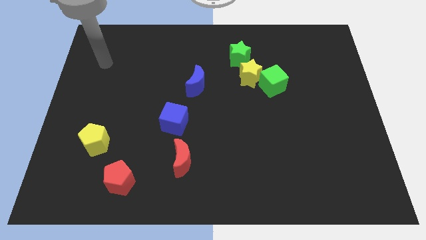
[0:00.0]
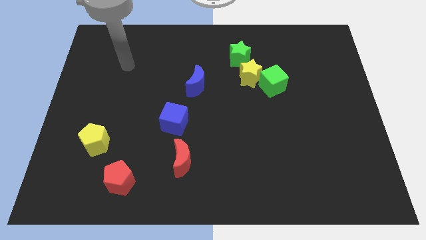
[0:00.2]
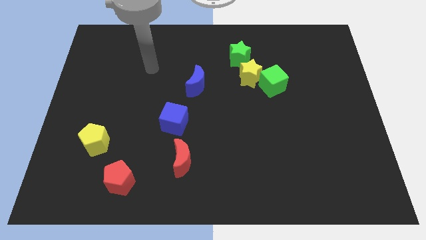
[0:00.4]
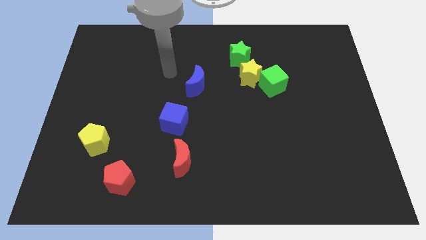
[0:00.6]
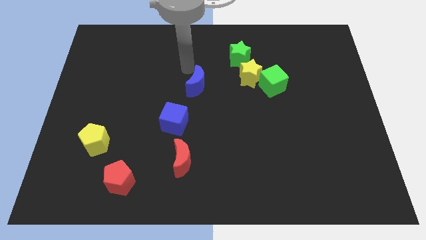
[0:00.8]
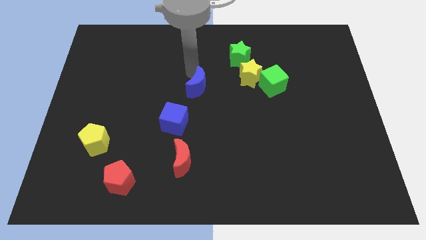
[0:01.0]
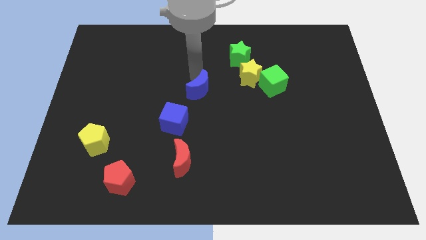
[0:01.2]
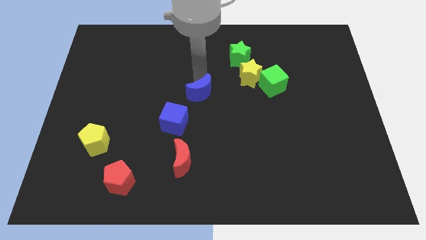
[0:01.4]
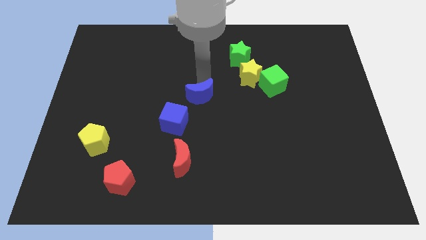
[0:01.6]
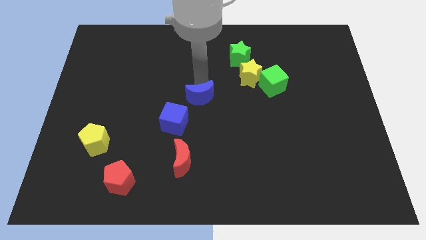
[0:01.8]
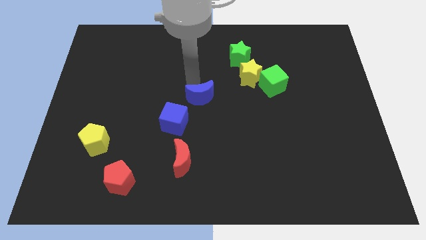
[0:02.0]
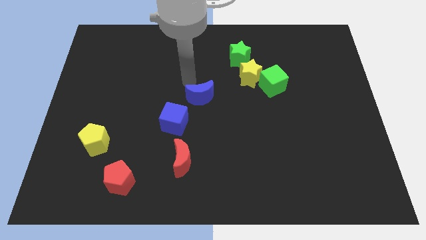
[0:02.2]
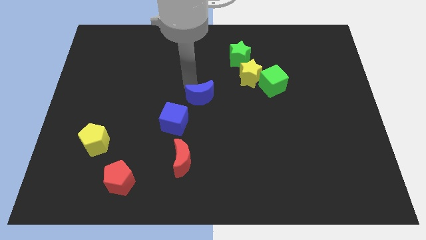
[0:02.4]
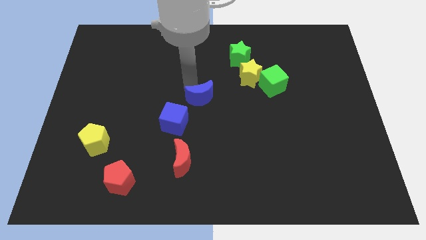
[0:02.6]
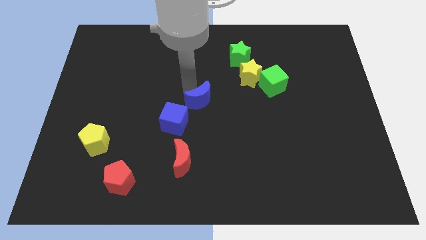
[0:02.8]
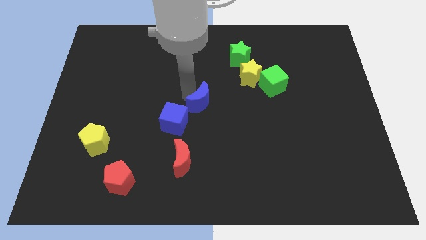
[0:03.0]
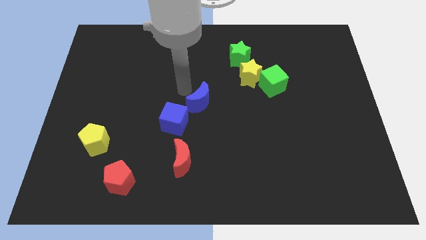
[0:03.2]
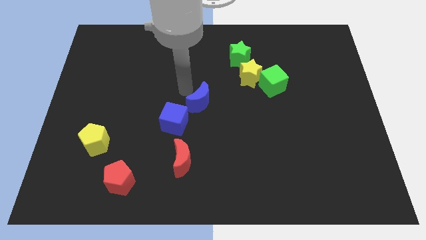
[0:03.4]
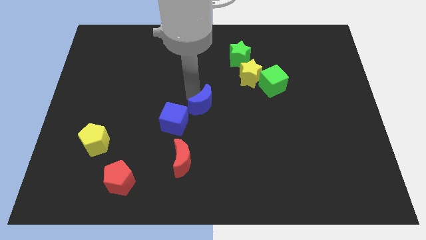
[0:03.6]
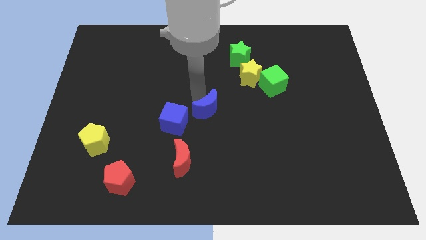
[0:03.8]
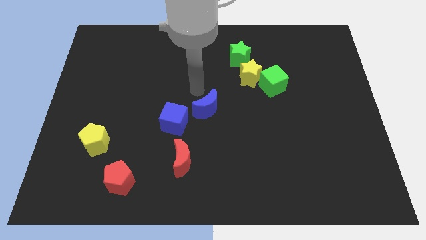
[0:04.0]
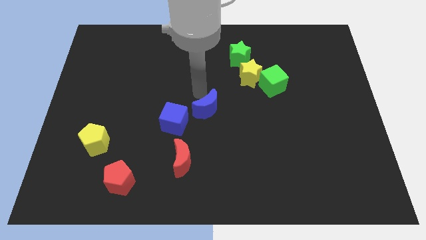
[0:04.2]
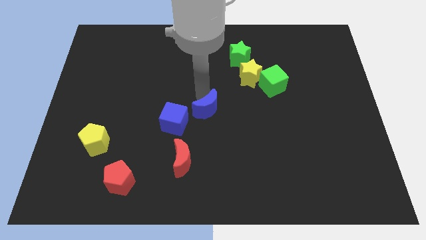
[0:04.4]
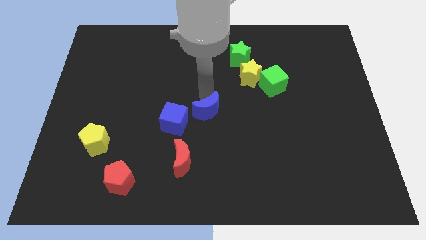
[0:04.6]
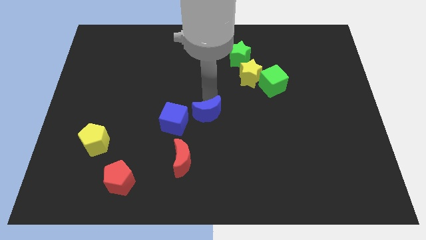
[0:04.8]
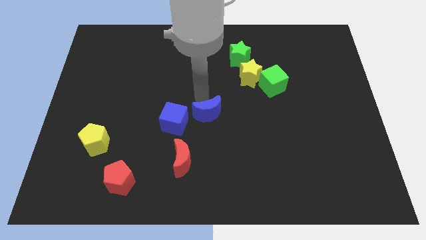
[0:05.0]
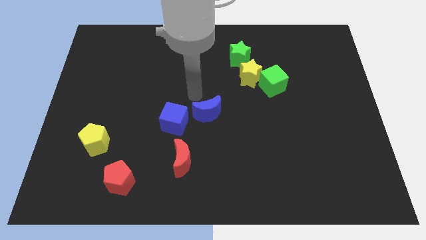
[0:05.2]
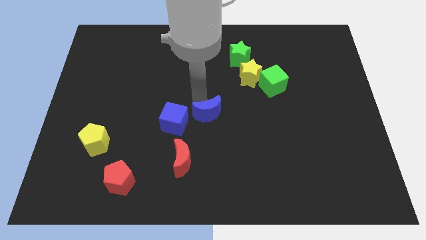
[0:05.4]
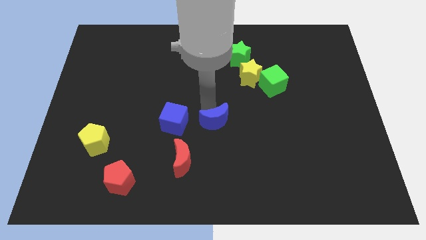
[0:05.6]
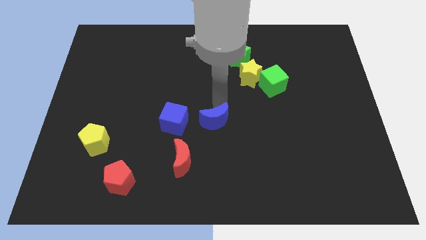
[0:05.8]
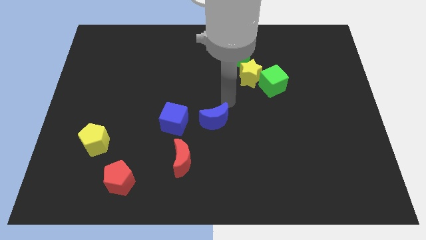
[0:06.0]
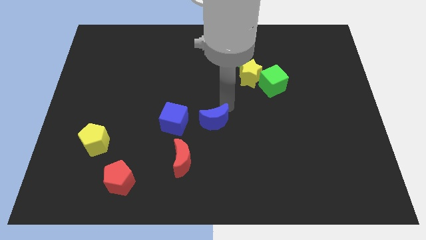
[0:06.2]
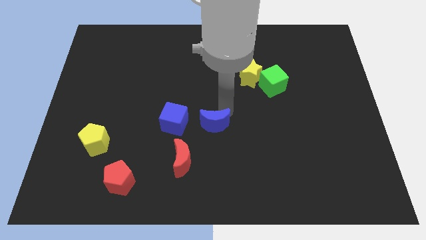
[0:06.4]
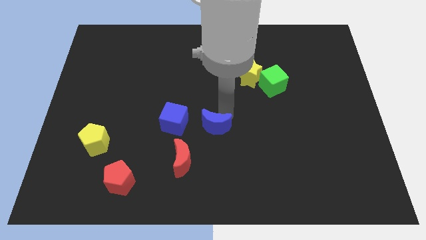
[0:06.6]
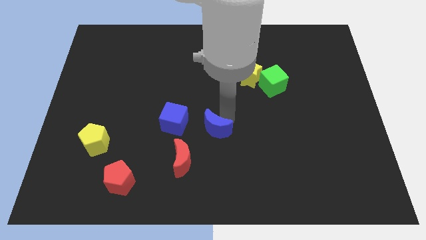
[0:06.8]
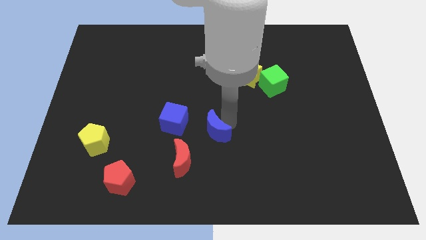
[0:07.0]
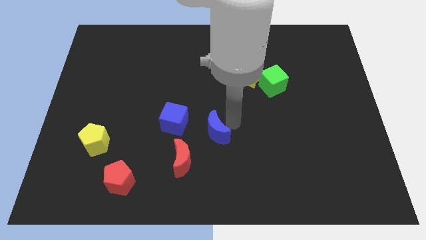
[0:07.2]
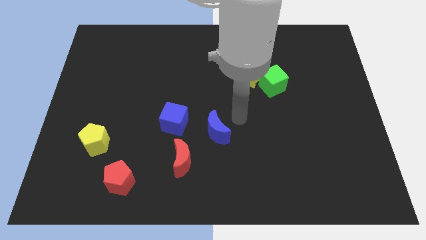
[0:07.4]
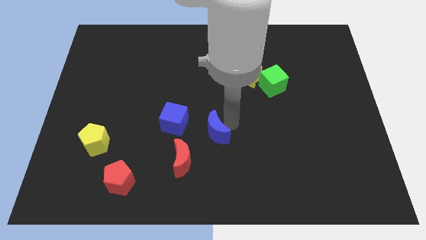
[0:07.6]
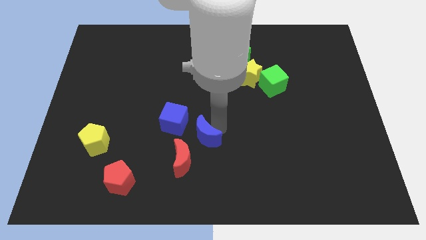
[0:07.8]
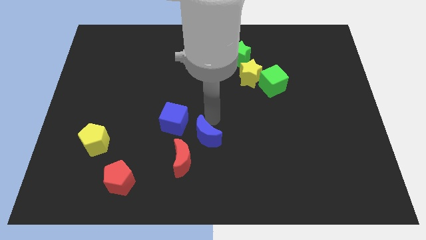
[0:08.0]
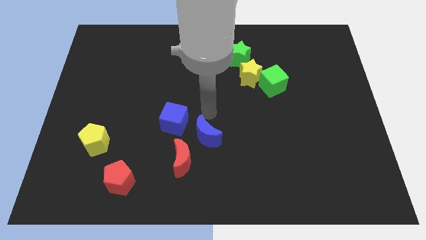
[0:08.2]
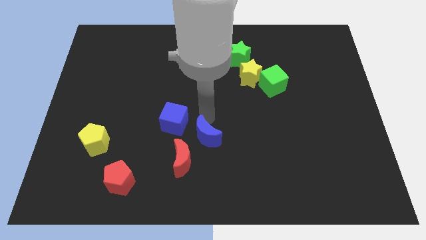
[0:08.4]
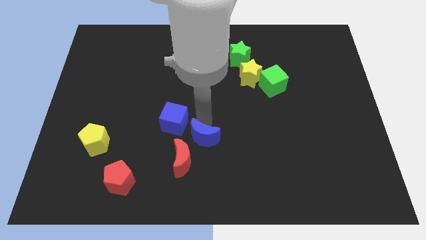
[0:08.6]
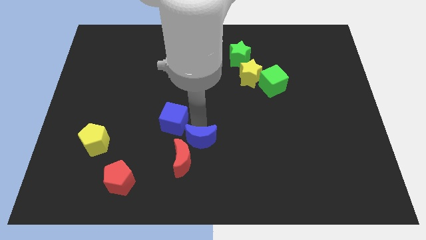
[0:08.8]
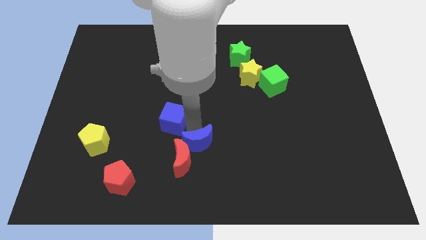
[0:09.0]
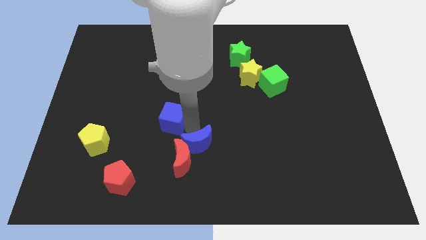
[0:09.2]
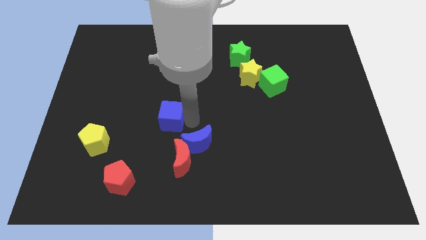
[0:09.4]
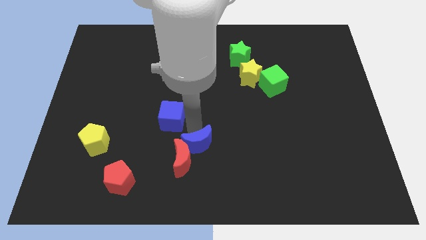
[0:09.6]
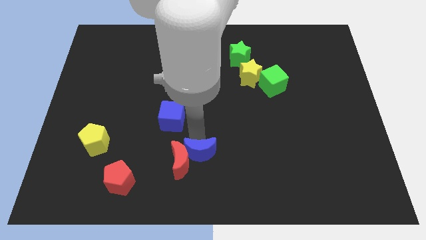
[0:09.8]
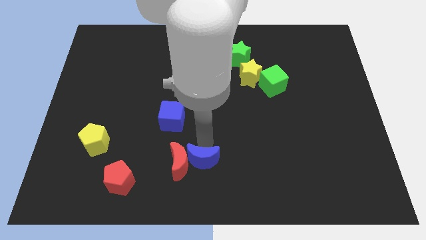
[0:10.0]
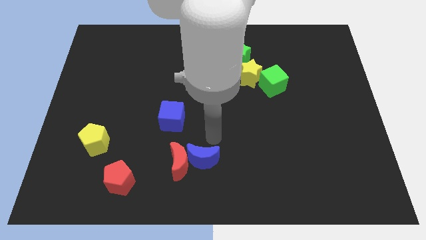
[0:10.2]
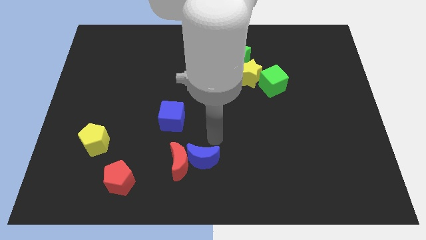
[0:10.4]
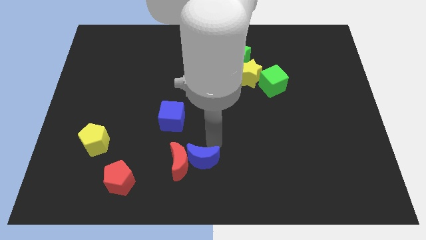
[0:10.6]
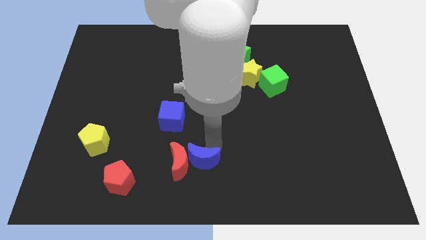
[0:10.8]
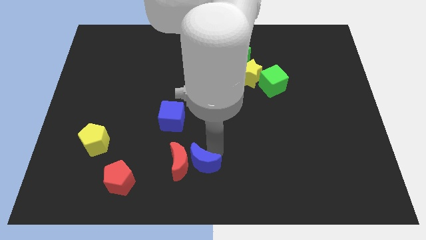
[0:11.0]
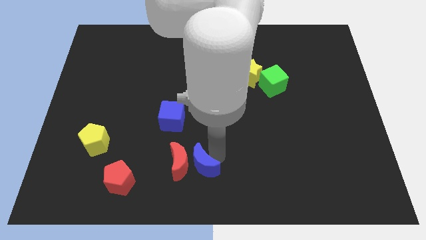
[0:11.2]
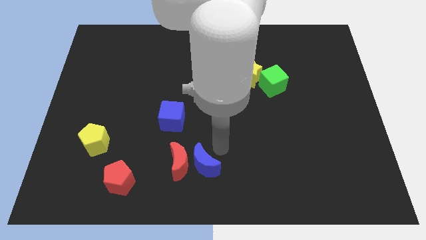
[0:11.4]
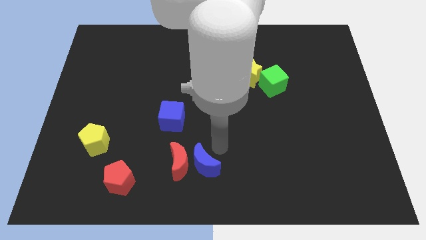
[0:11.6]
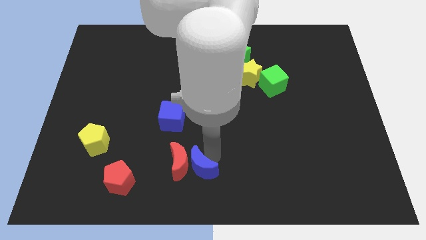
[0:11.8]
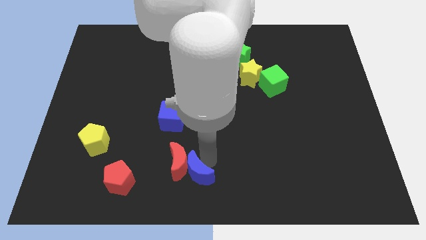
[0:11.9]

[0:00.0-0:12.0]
move the blue moon just right of the red pentagon

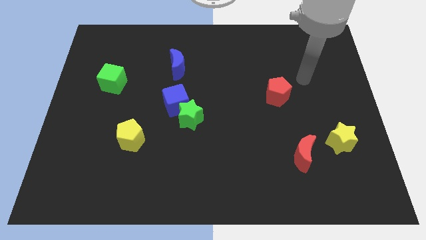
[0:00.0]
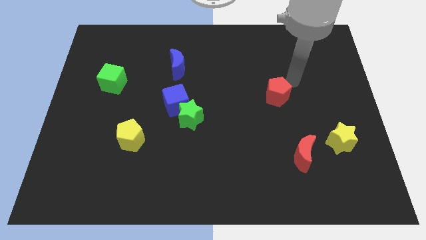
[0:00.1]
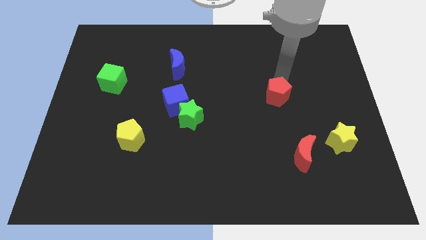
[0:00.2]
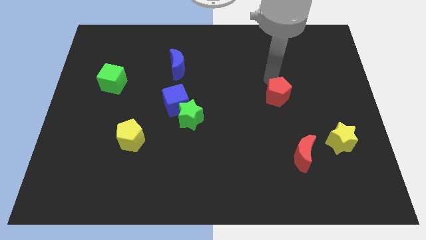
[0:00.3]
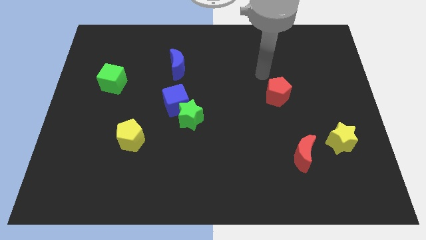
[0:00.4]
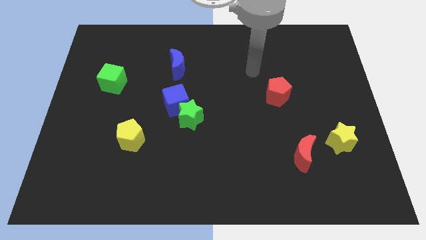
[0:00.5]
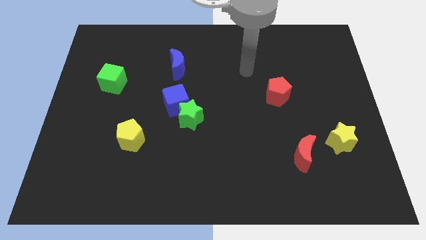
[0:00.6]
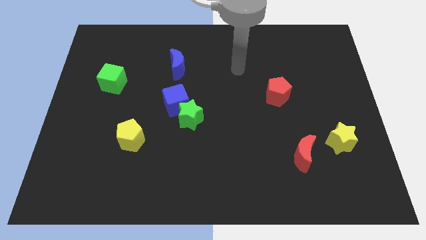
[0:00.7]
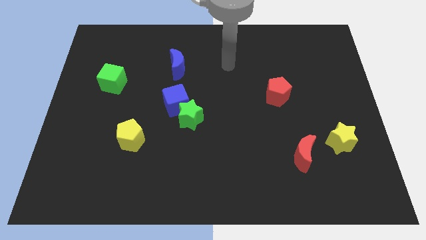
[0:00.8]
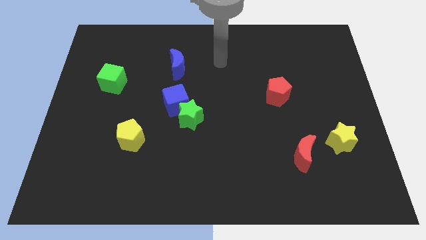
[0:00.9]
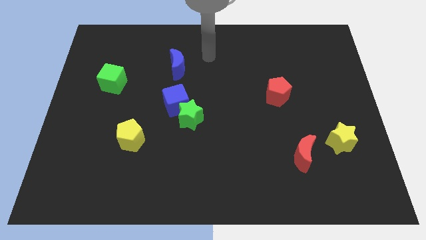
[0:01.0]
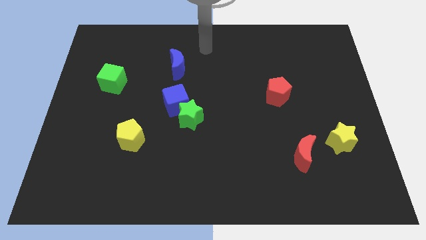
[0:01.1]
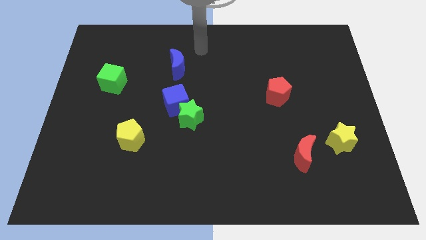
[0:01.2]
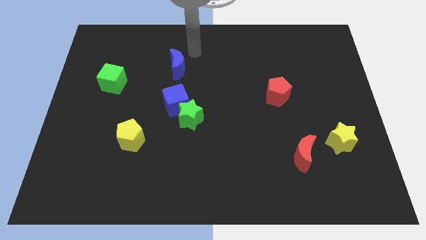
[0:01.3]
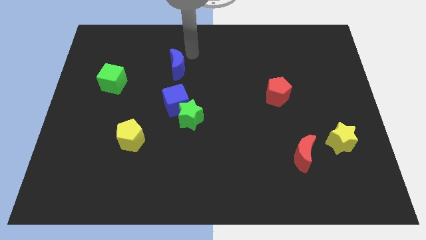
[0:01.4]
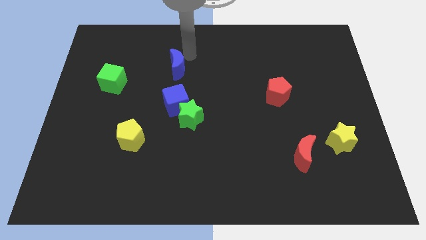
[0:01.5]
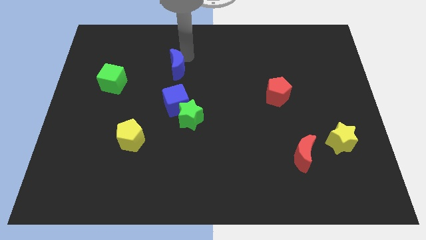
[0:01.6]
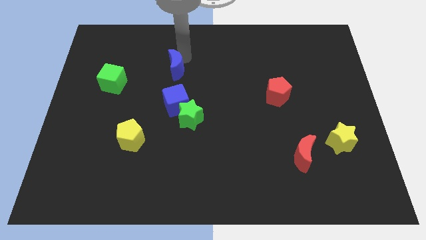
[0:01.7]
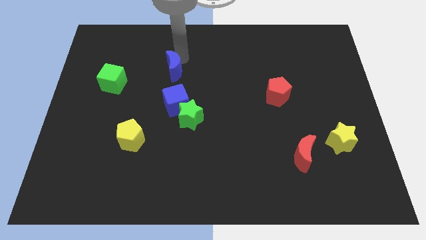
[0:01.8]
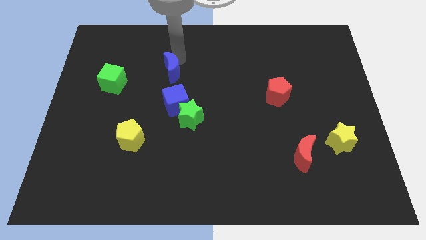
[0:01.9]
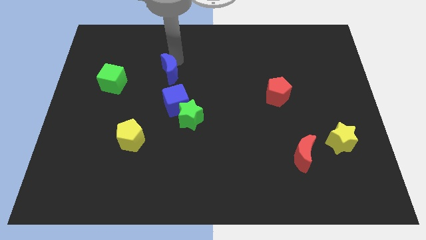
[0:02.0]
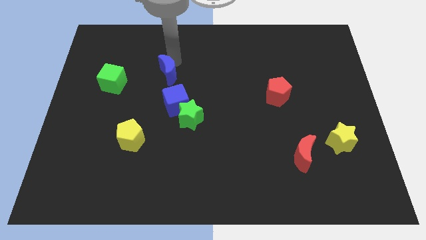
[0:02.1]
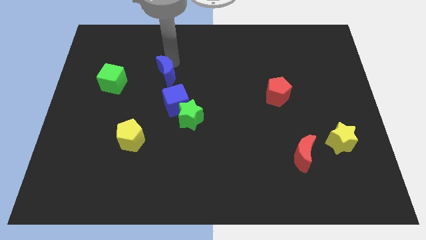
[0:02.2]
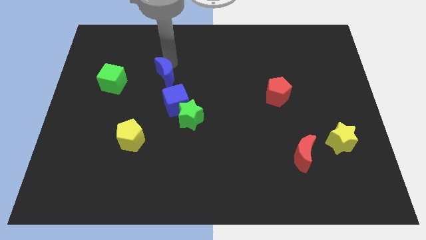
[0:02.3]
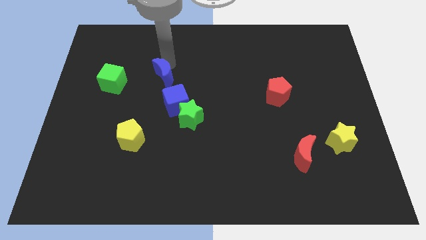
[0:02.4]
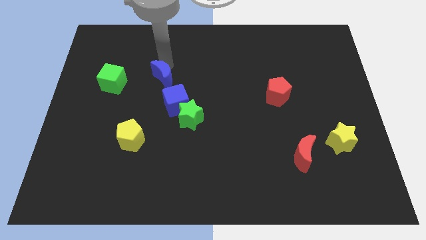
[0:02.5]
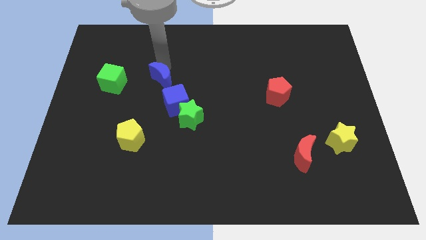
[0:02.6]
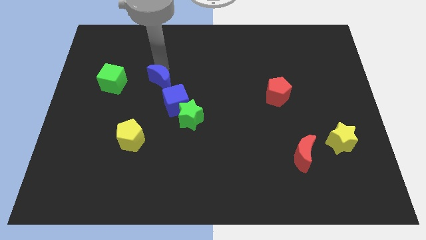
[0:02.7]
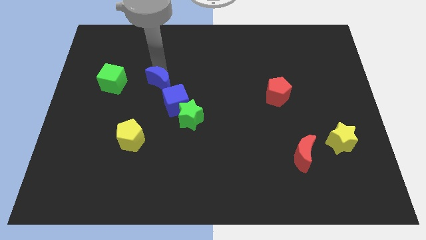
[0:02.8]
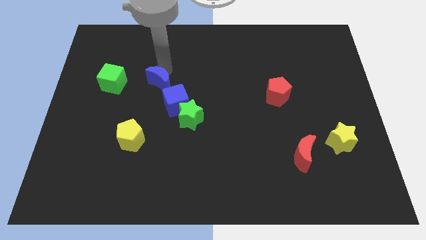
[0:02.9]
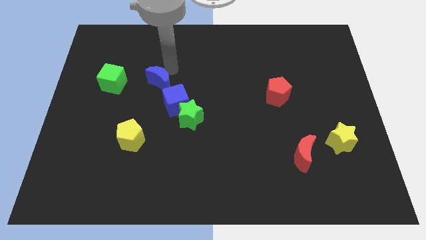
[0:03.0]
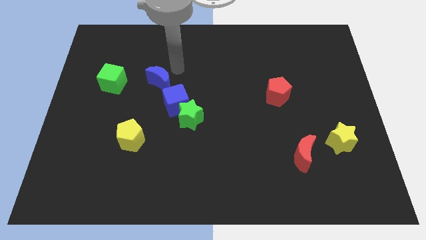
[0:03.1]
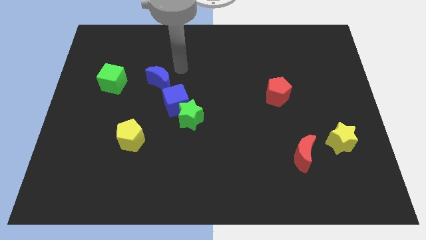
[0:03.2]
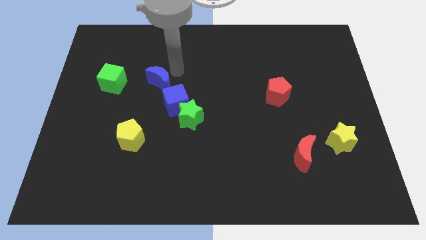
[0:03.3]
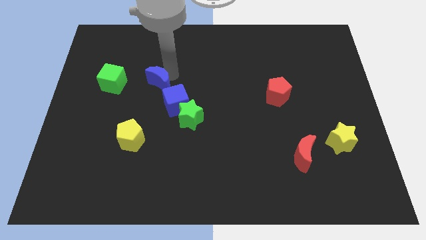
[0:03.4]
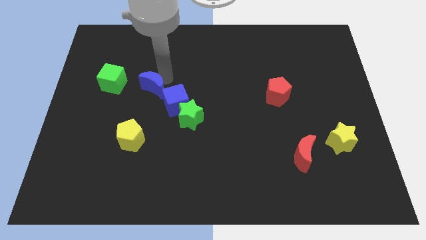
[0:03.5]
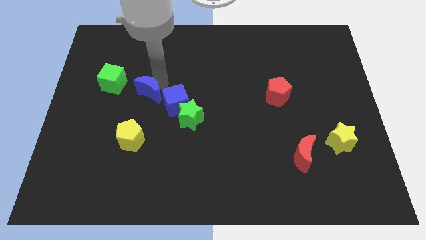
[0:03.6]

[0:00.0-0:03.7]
slide the blue moon to the bottom right of the green cube
